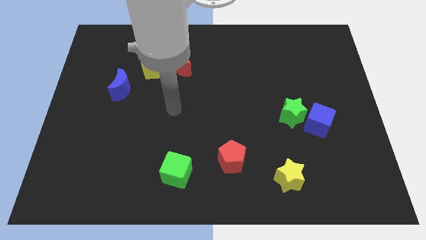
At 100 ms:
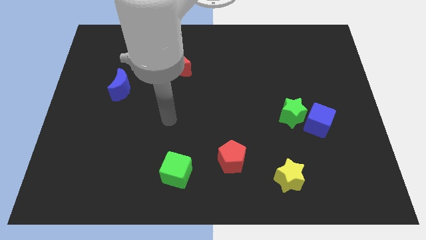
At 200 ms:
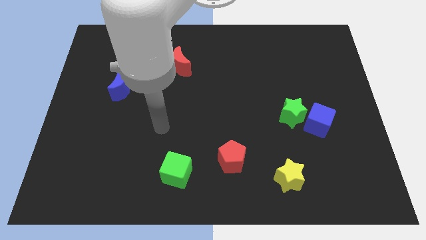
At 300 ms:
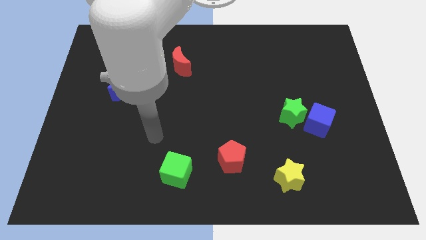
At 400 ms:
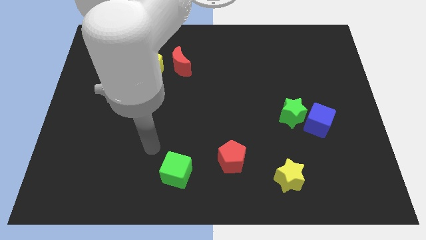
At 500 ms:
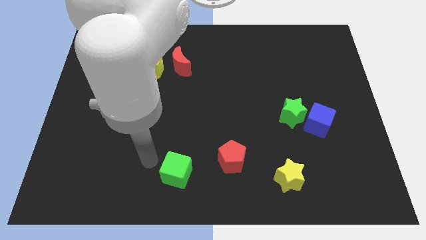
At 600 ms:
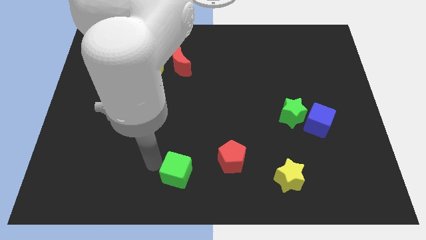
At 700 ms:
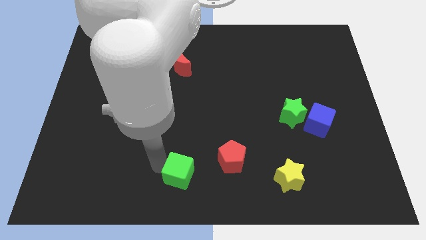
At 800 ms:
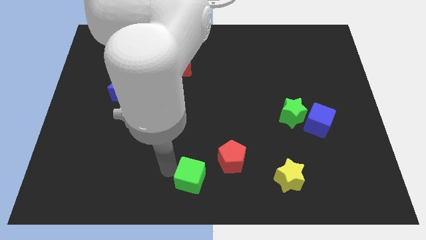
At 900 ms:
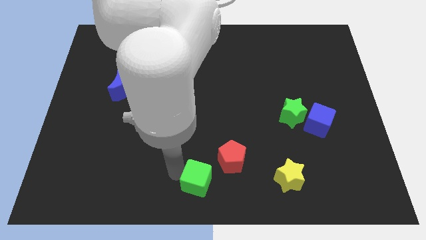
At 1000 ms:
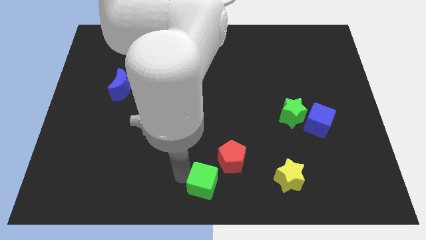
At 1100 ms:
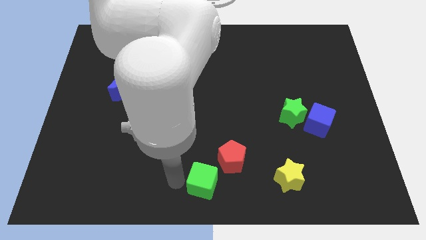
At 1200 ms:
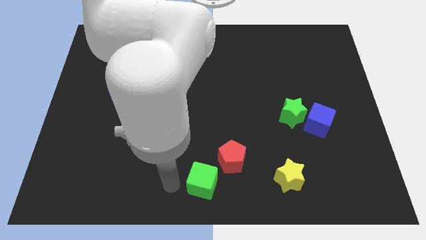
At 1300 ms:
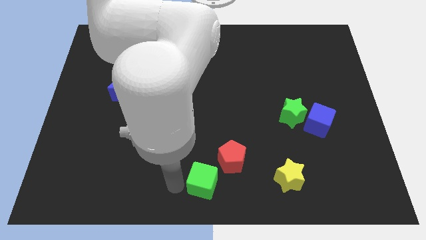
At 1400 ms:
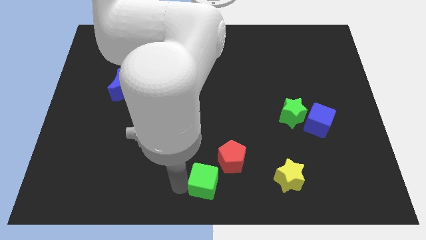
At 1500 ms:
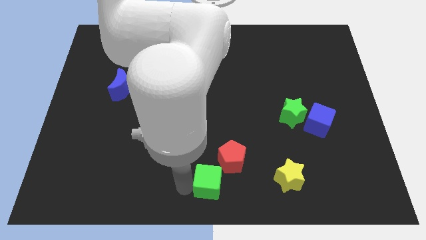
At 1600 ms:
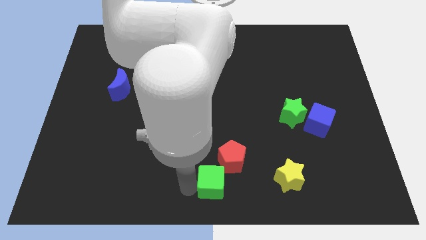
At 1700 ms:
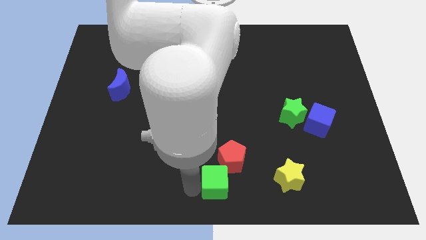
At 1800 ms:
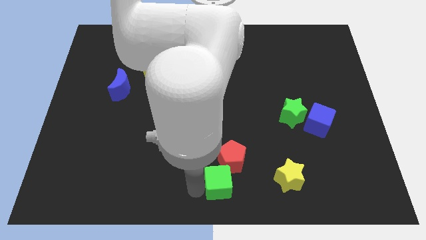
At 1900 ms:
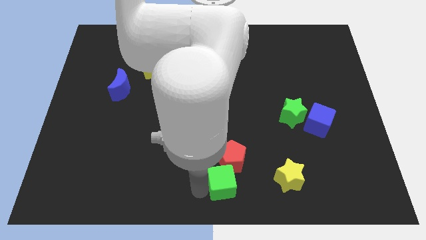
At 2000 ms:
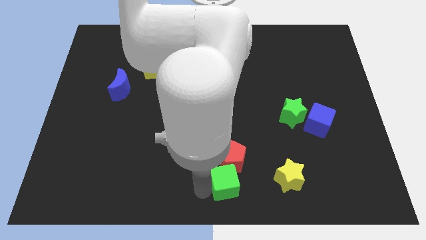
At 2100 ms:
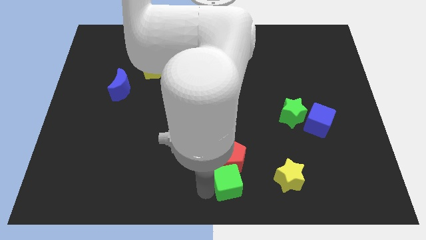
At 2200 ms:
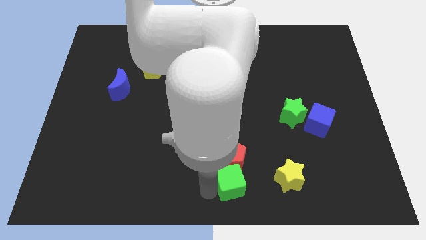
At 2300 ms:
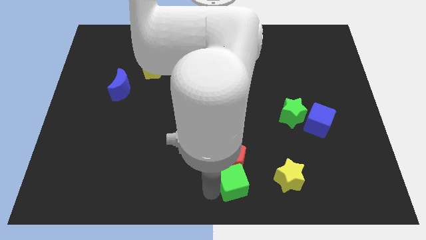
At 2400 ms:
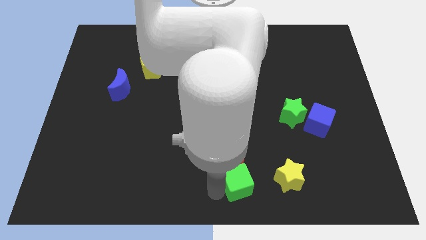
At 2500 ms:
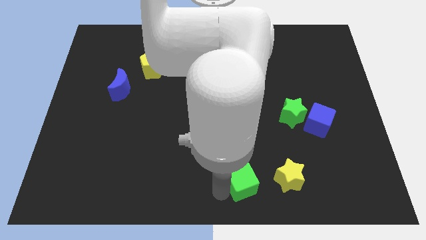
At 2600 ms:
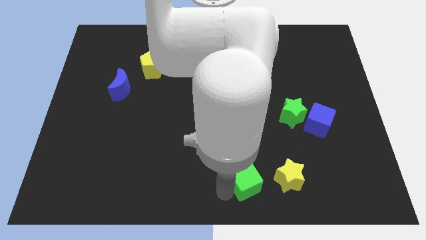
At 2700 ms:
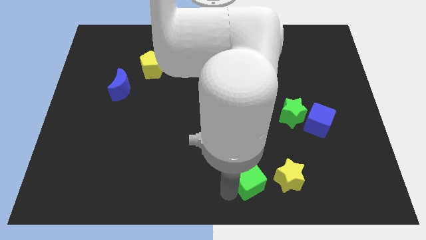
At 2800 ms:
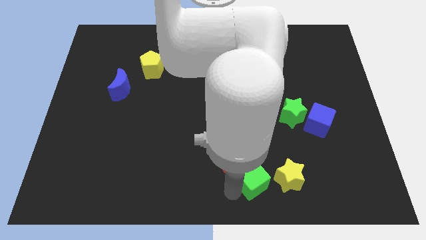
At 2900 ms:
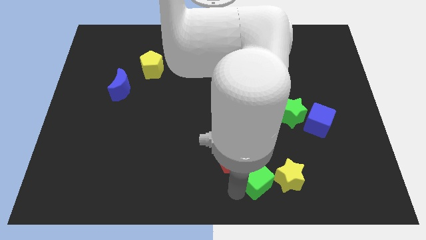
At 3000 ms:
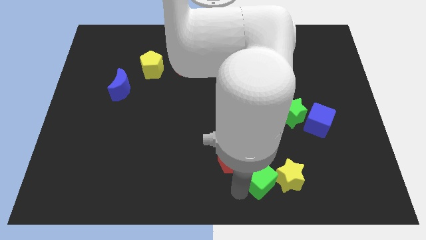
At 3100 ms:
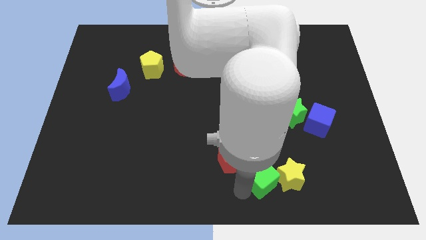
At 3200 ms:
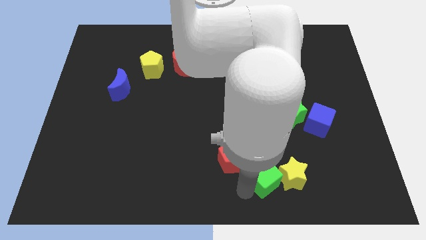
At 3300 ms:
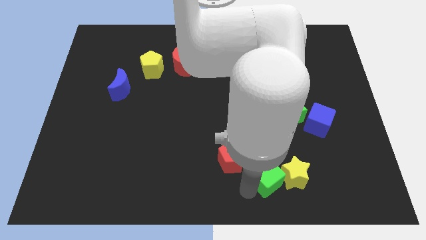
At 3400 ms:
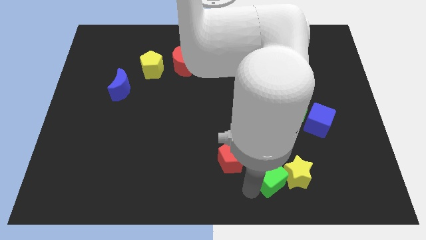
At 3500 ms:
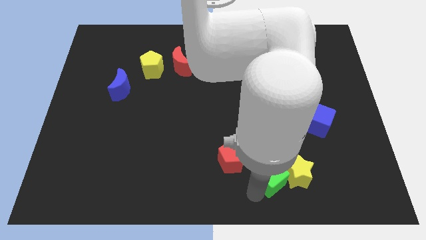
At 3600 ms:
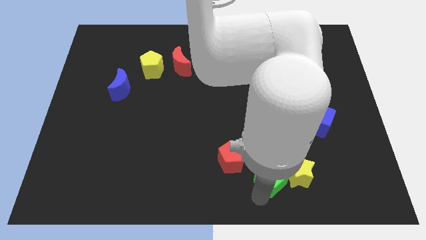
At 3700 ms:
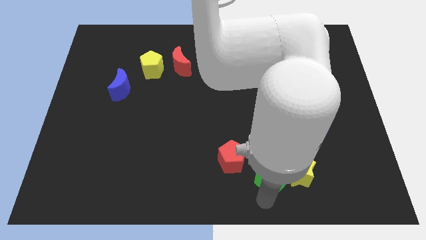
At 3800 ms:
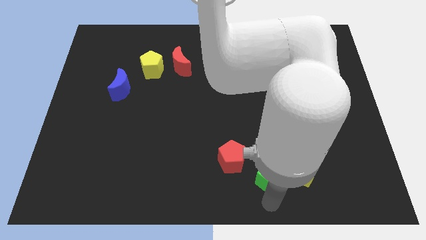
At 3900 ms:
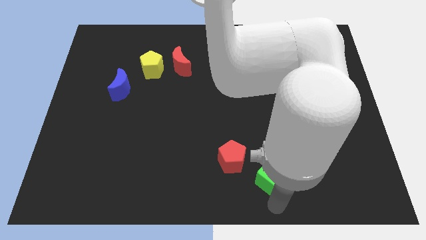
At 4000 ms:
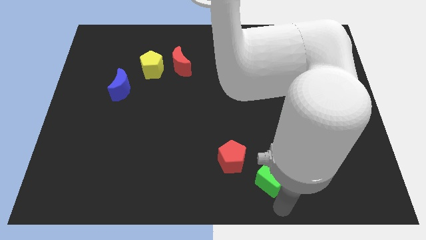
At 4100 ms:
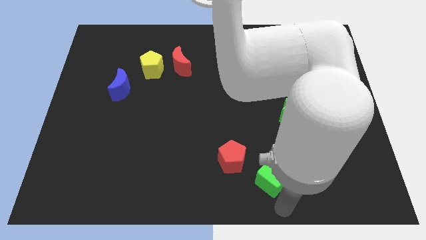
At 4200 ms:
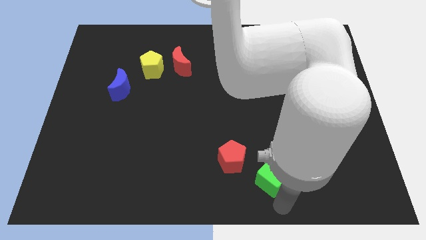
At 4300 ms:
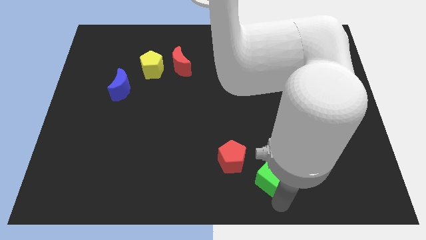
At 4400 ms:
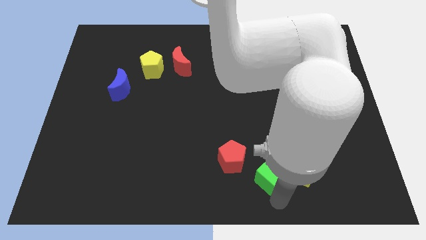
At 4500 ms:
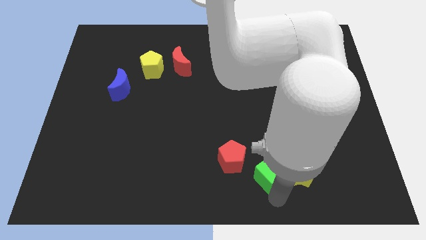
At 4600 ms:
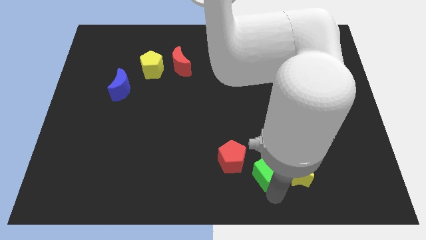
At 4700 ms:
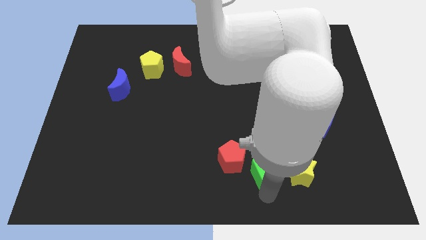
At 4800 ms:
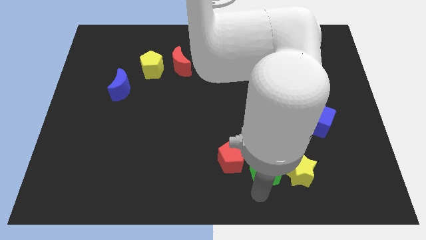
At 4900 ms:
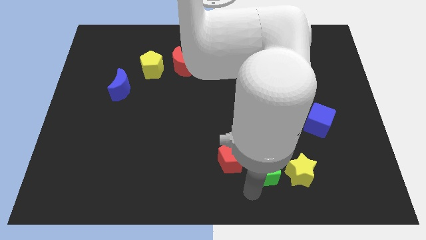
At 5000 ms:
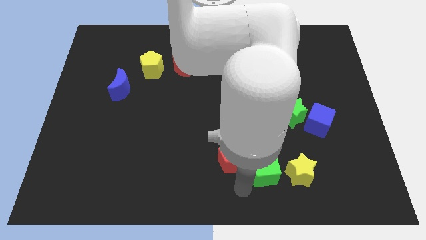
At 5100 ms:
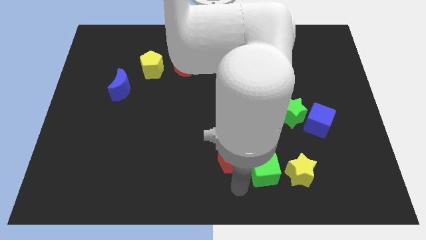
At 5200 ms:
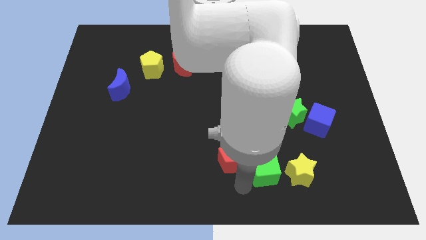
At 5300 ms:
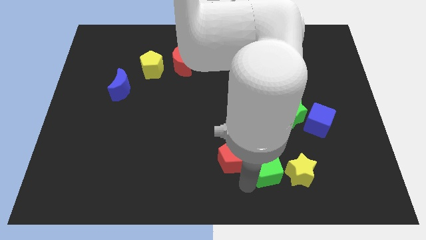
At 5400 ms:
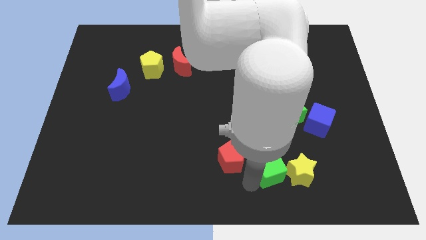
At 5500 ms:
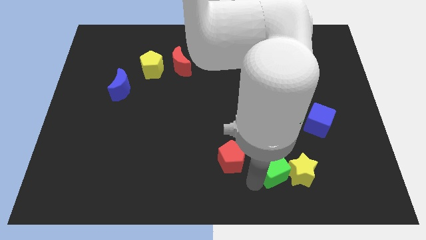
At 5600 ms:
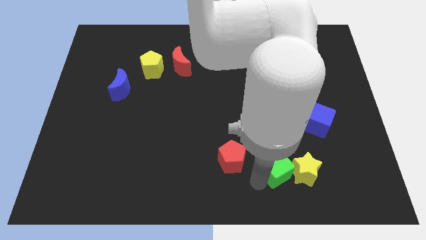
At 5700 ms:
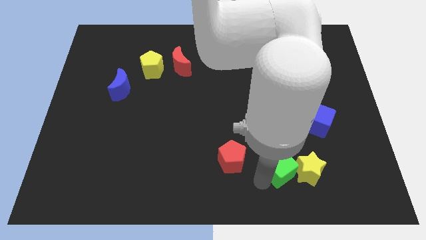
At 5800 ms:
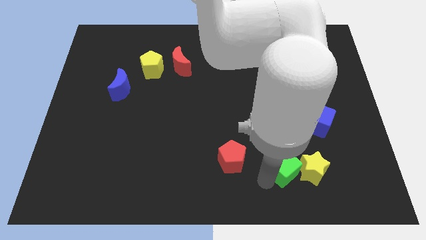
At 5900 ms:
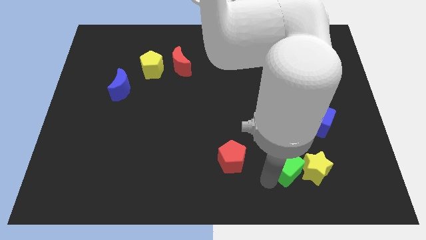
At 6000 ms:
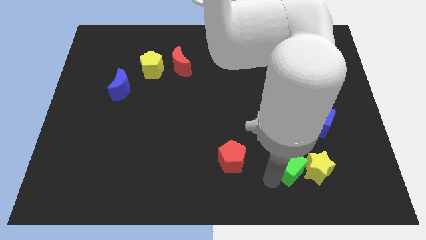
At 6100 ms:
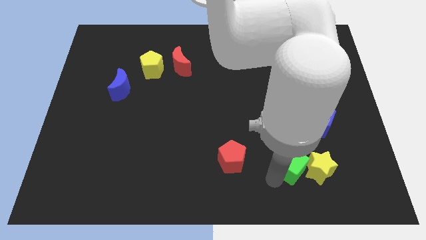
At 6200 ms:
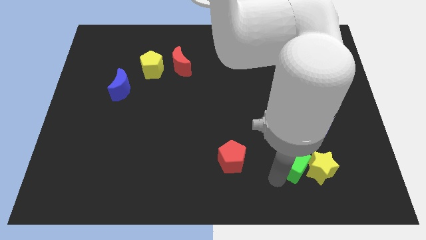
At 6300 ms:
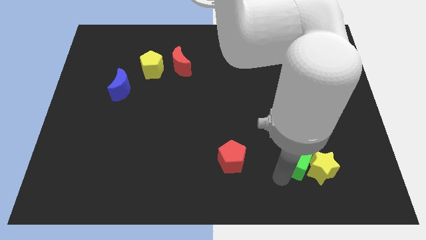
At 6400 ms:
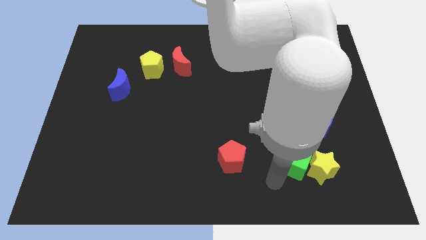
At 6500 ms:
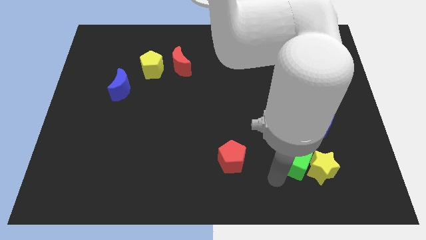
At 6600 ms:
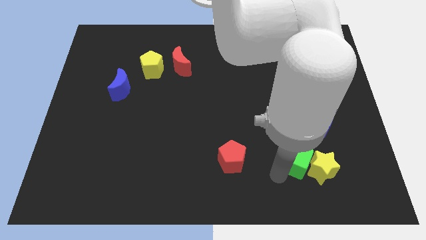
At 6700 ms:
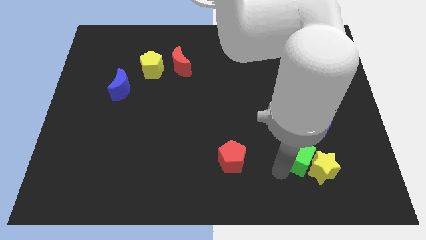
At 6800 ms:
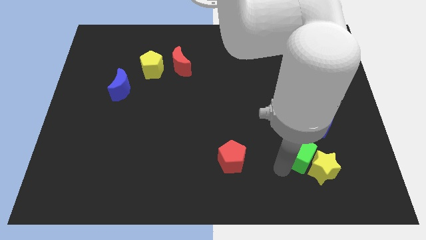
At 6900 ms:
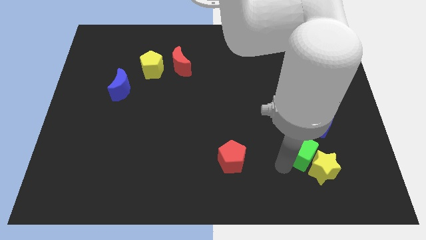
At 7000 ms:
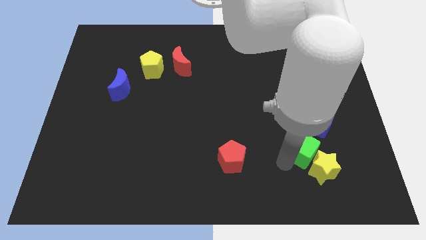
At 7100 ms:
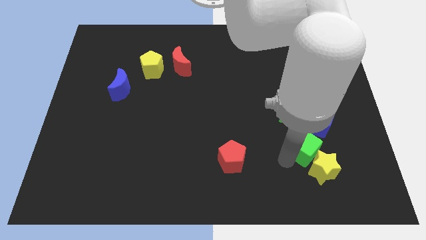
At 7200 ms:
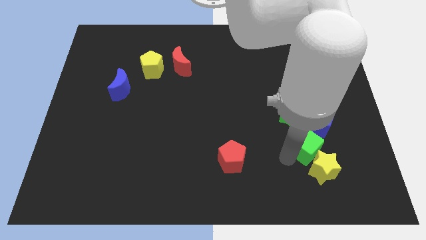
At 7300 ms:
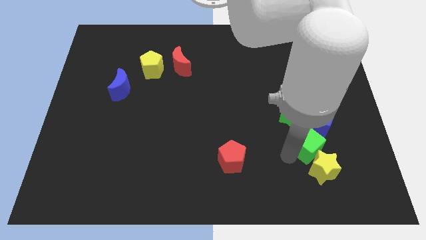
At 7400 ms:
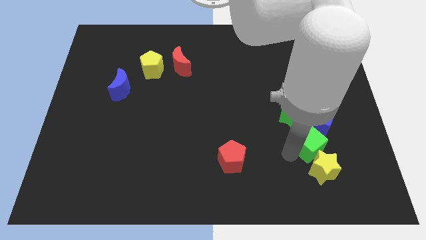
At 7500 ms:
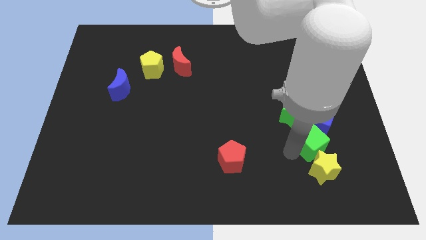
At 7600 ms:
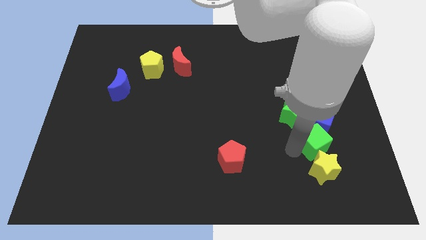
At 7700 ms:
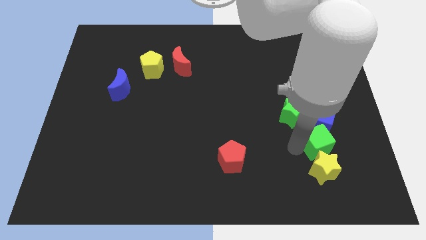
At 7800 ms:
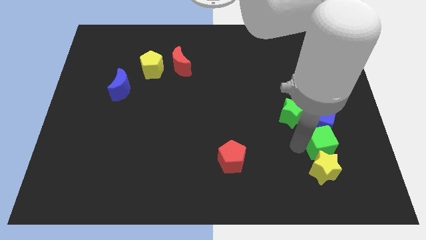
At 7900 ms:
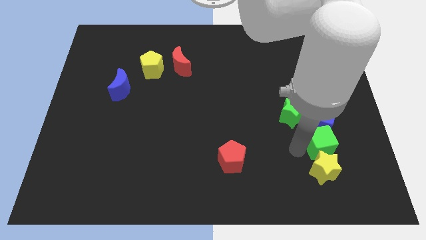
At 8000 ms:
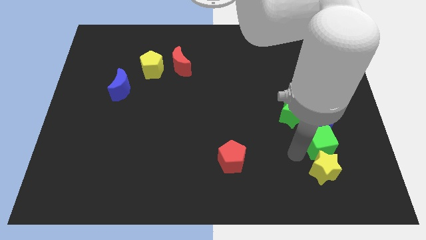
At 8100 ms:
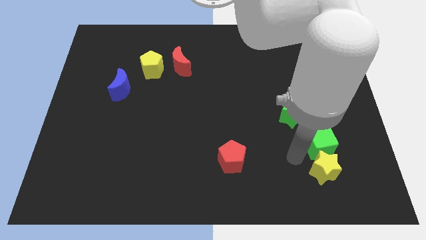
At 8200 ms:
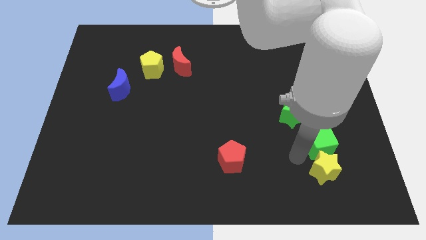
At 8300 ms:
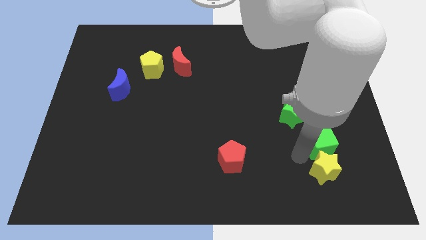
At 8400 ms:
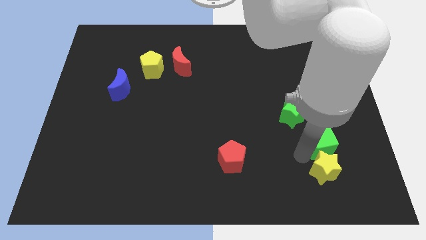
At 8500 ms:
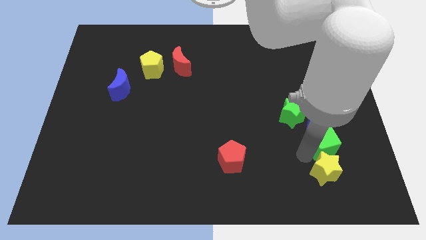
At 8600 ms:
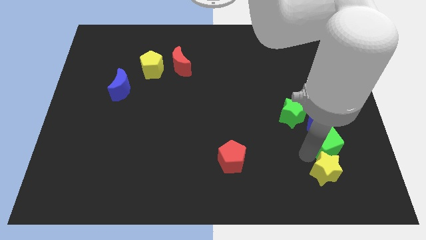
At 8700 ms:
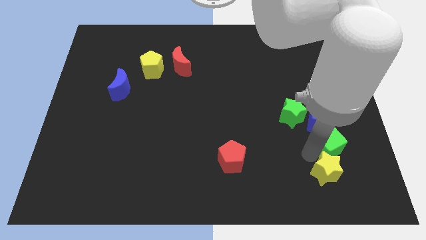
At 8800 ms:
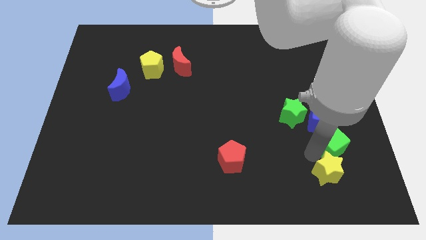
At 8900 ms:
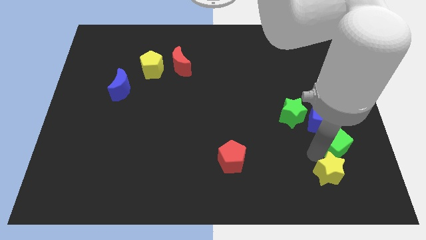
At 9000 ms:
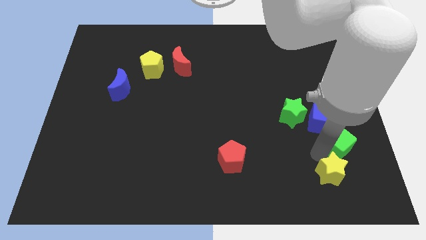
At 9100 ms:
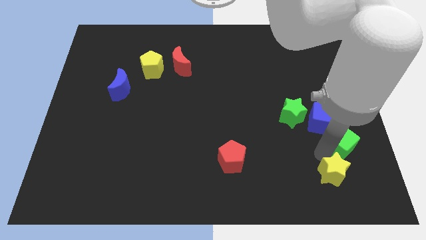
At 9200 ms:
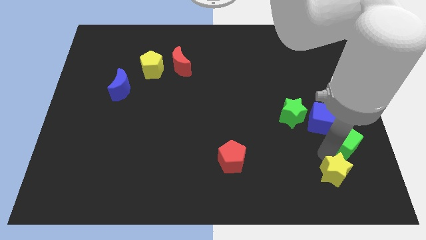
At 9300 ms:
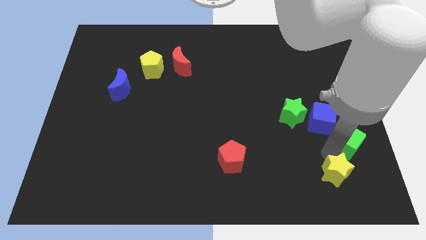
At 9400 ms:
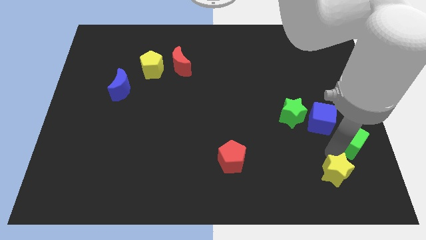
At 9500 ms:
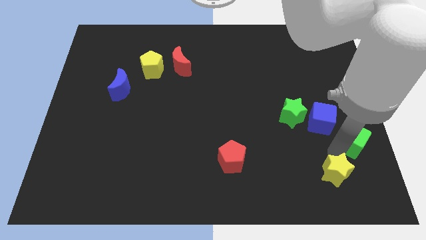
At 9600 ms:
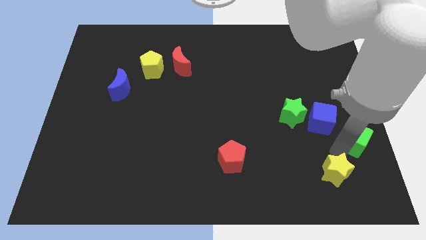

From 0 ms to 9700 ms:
move the green cube to the right side of the board
